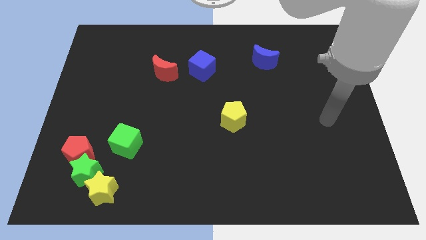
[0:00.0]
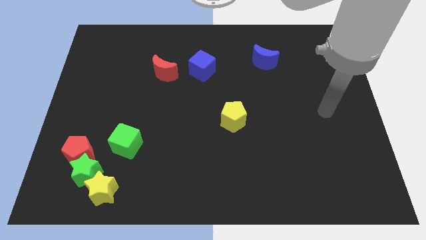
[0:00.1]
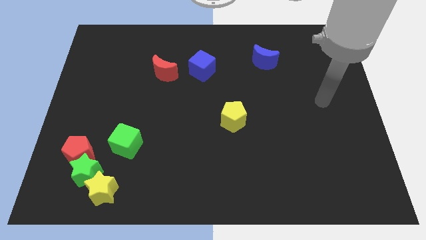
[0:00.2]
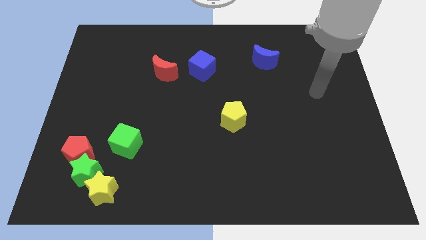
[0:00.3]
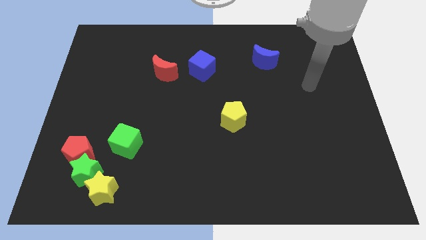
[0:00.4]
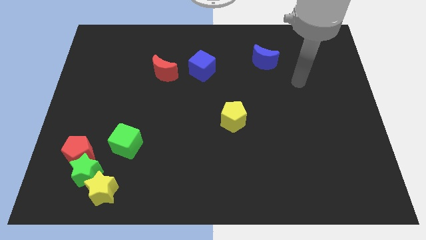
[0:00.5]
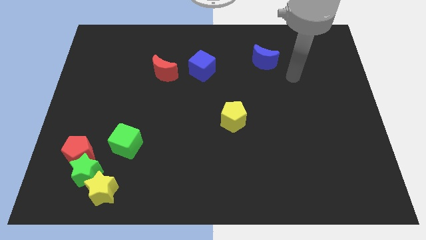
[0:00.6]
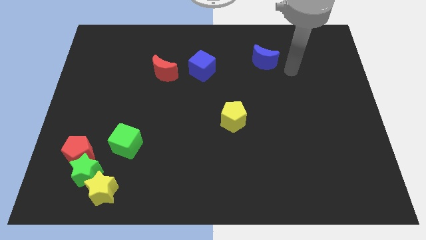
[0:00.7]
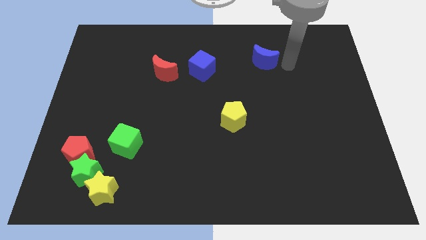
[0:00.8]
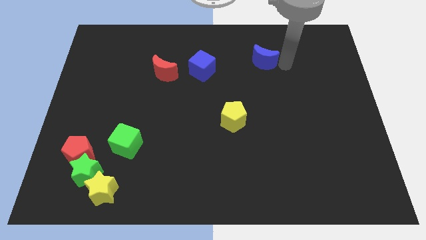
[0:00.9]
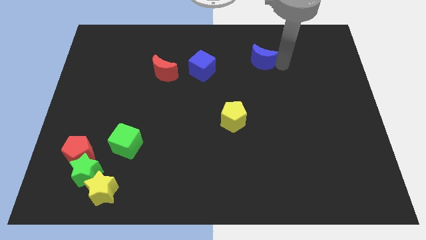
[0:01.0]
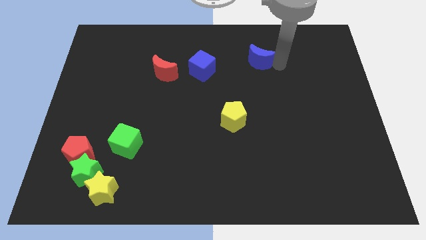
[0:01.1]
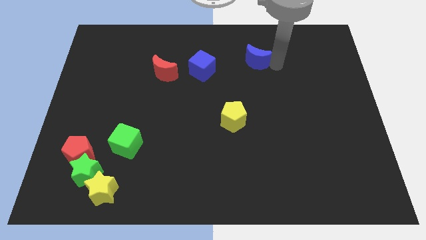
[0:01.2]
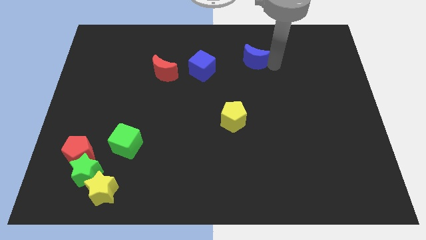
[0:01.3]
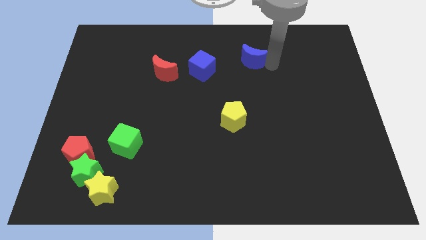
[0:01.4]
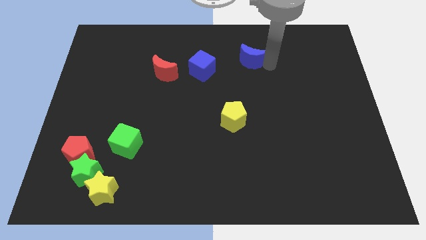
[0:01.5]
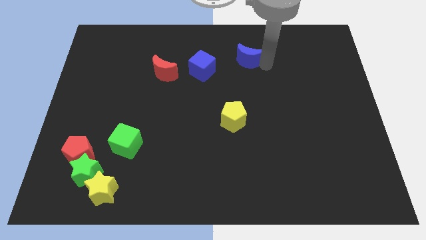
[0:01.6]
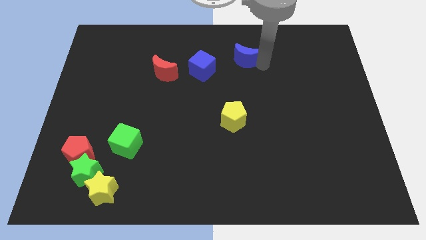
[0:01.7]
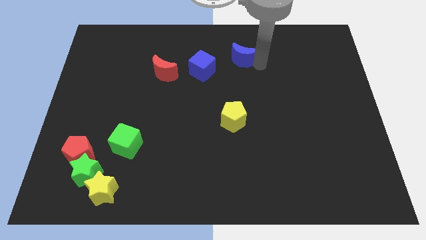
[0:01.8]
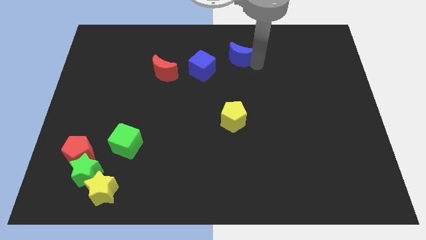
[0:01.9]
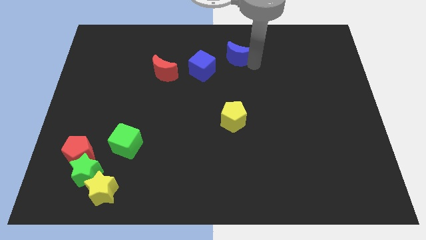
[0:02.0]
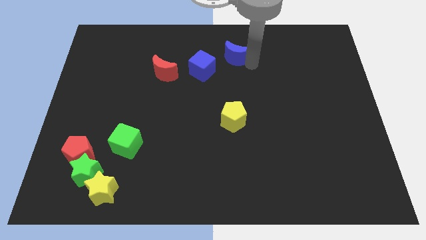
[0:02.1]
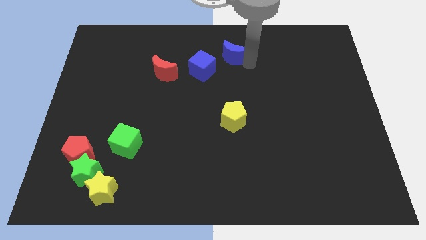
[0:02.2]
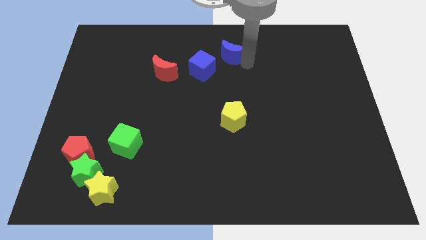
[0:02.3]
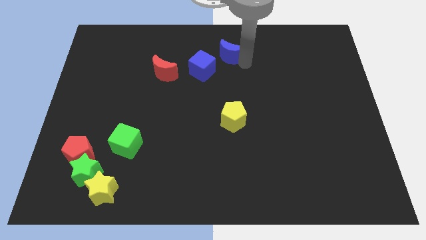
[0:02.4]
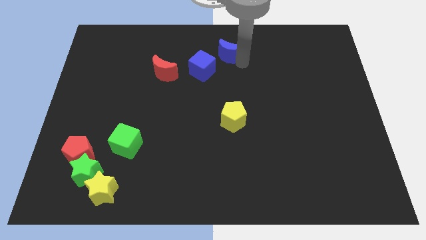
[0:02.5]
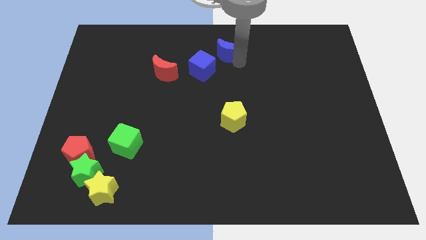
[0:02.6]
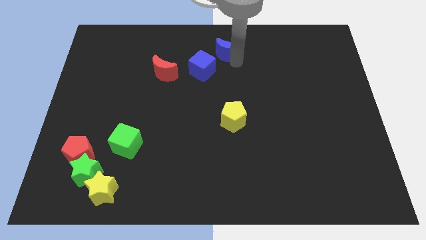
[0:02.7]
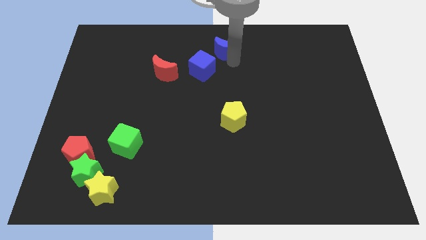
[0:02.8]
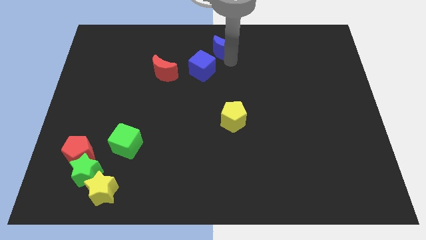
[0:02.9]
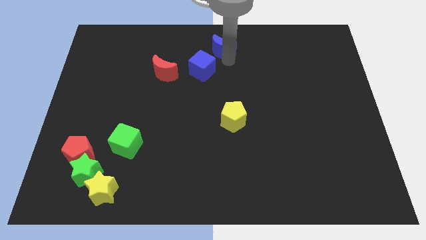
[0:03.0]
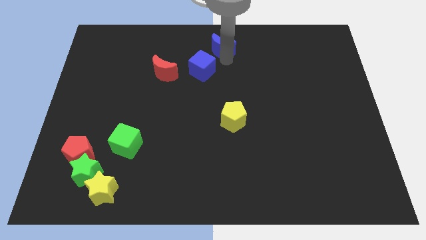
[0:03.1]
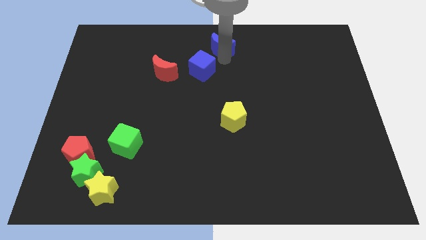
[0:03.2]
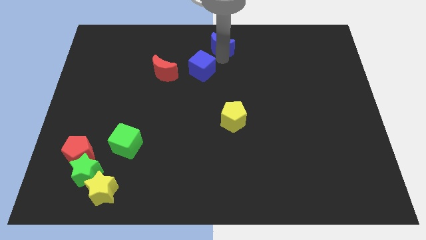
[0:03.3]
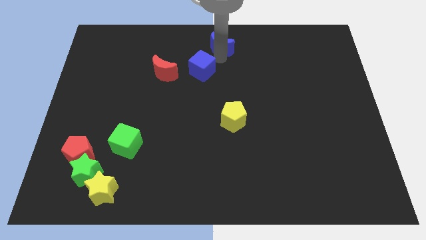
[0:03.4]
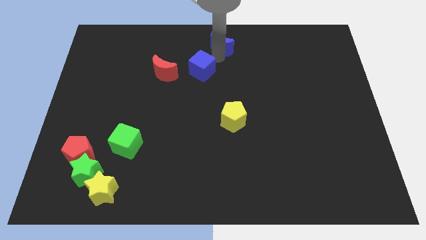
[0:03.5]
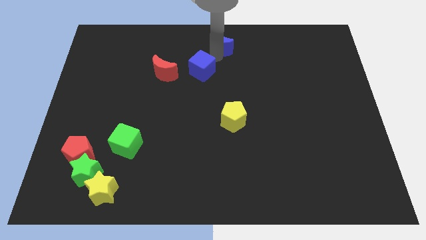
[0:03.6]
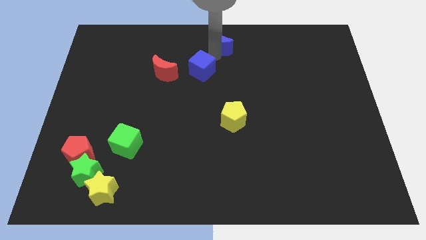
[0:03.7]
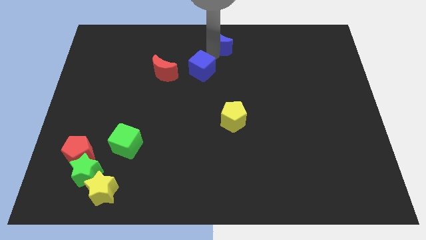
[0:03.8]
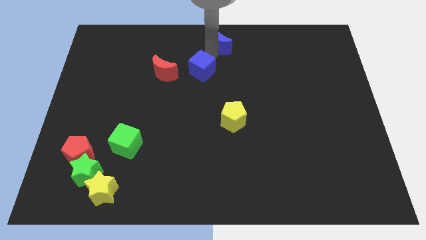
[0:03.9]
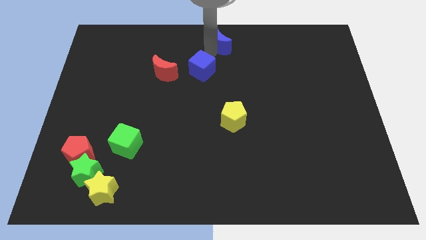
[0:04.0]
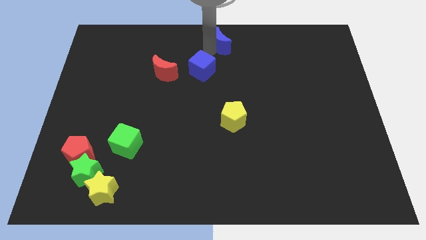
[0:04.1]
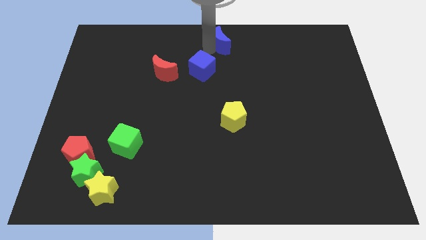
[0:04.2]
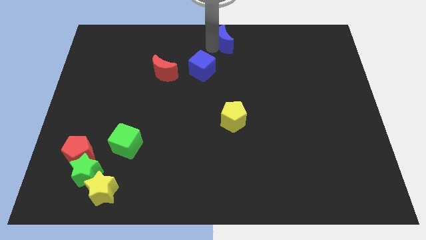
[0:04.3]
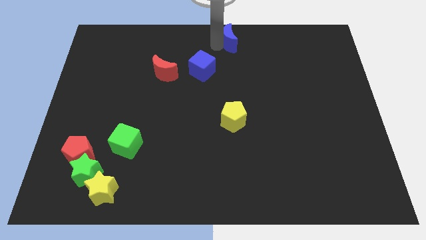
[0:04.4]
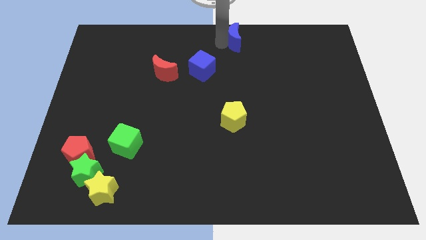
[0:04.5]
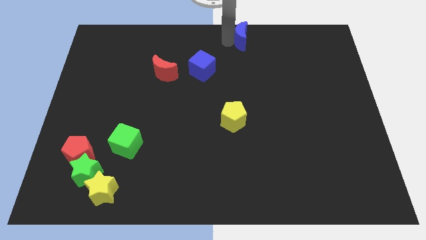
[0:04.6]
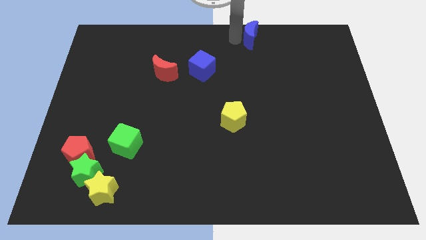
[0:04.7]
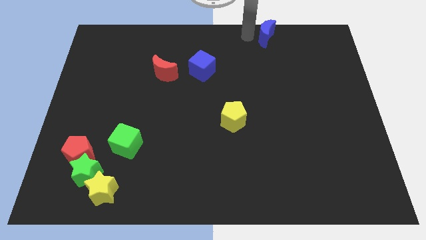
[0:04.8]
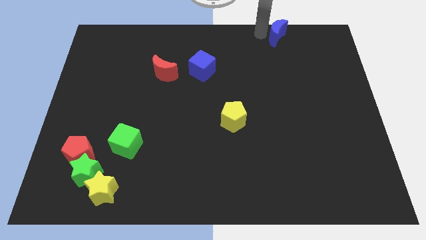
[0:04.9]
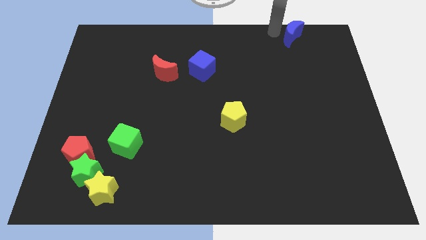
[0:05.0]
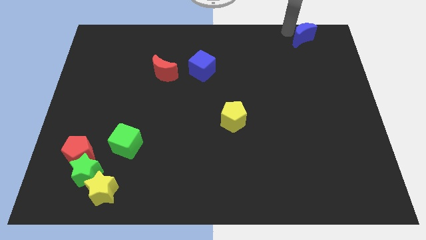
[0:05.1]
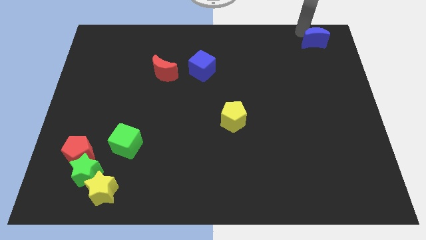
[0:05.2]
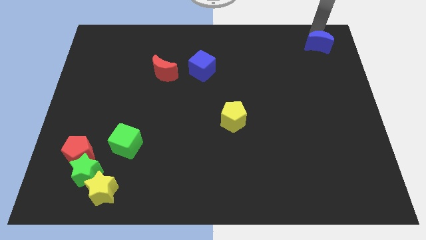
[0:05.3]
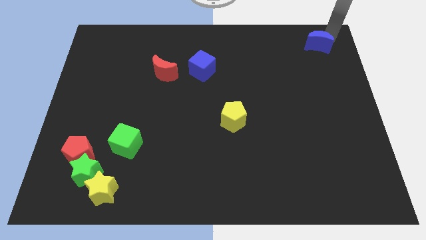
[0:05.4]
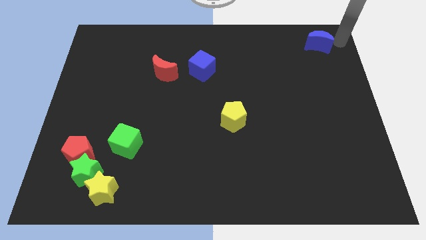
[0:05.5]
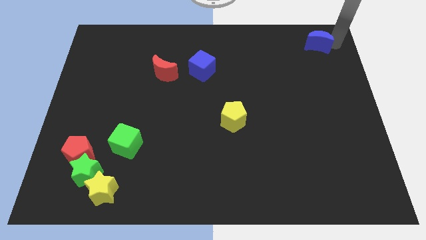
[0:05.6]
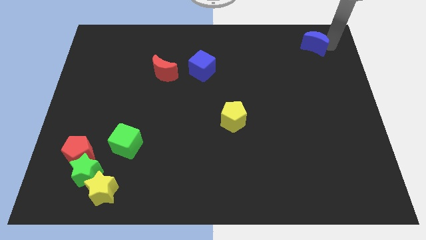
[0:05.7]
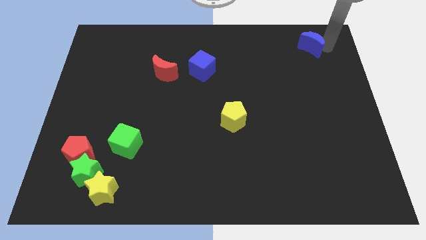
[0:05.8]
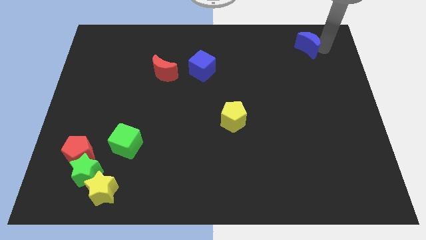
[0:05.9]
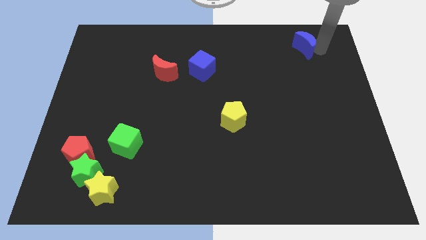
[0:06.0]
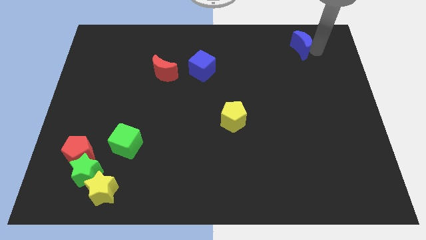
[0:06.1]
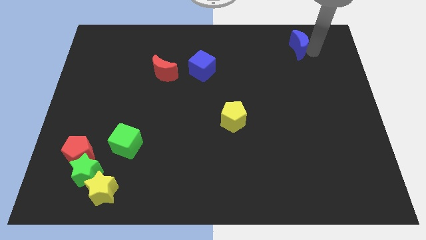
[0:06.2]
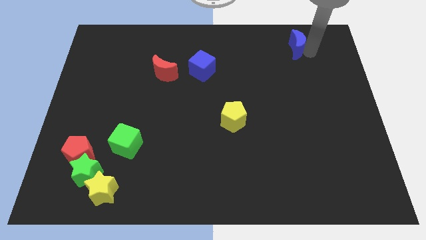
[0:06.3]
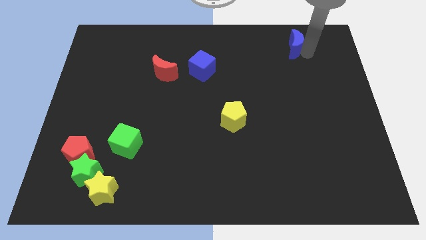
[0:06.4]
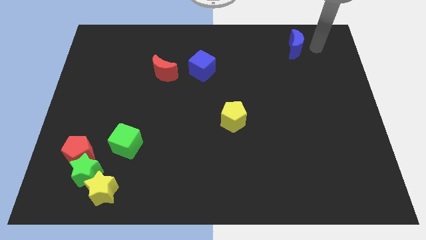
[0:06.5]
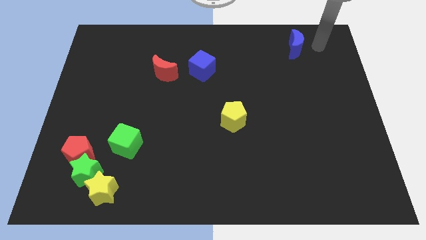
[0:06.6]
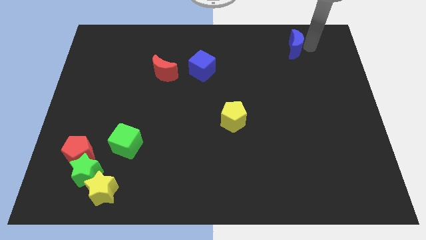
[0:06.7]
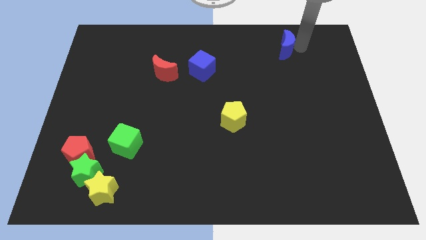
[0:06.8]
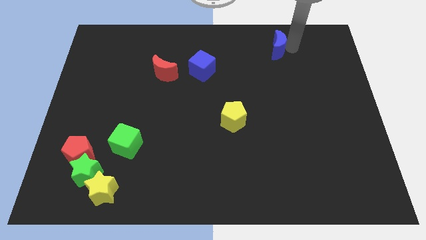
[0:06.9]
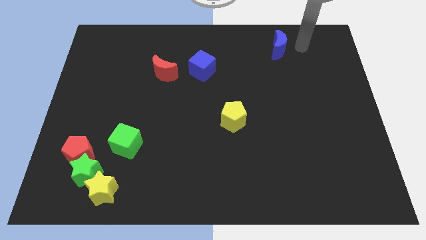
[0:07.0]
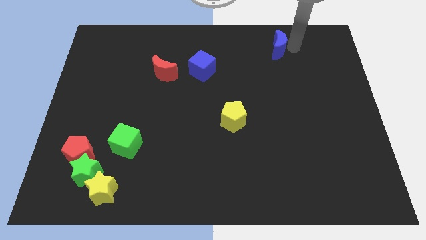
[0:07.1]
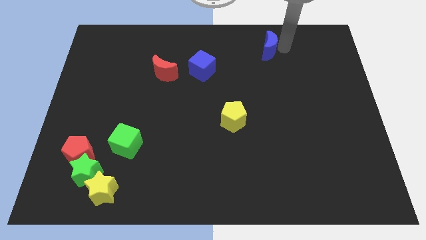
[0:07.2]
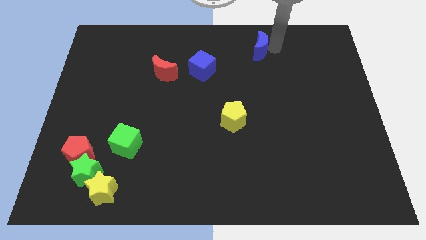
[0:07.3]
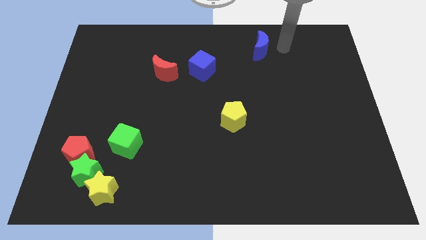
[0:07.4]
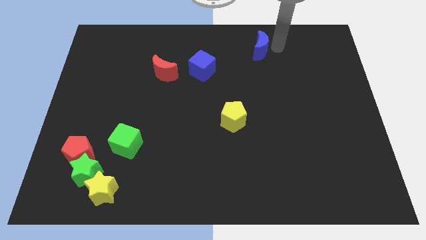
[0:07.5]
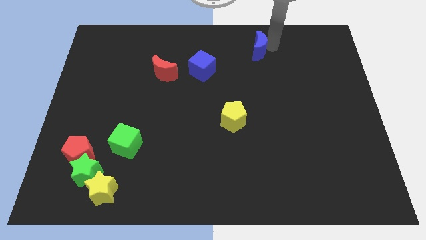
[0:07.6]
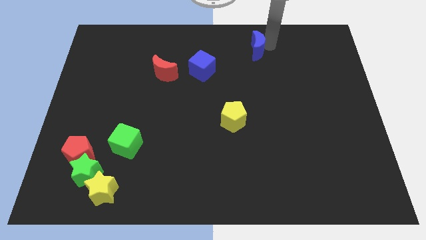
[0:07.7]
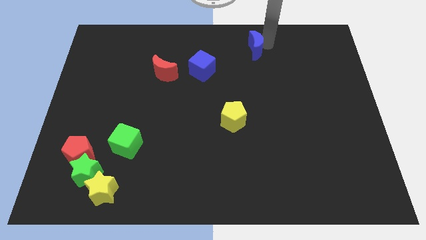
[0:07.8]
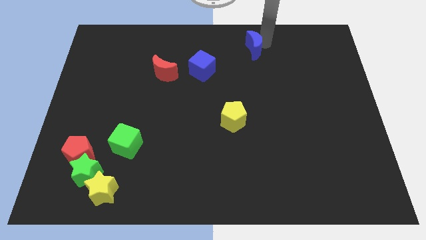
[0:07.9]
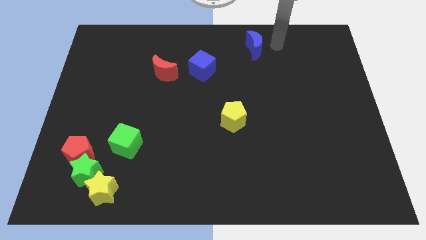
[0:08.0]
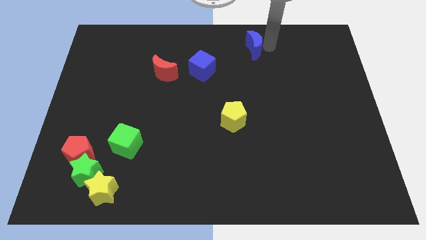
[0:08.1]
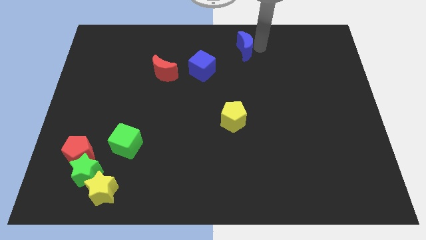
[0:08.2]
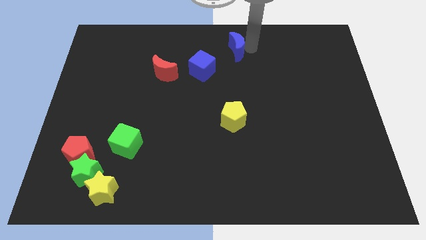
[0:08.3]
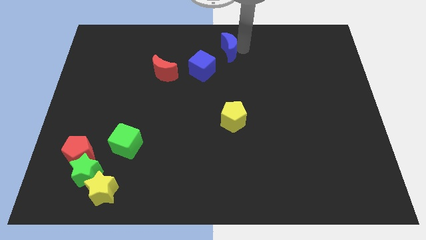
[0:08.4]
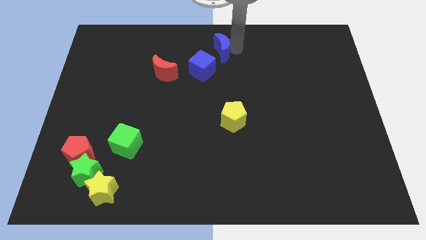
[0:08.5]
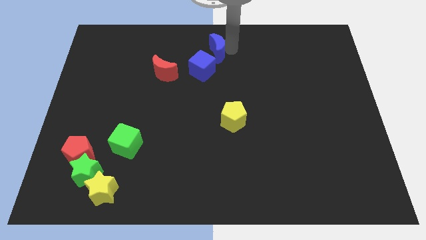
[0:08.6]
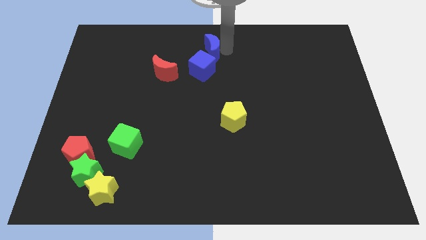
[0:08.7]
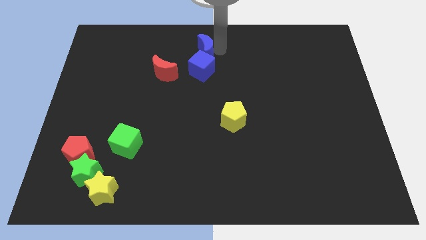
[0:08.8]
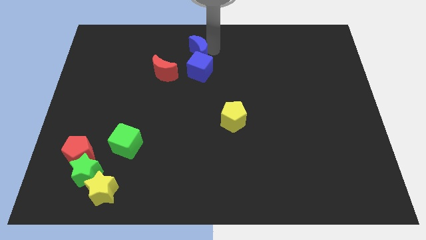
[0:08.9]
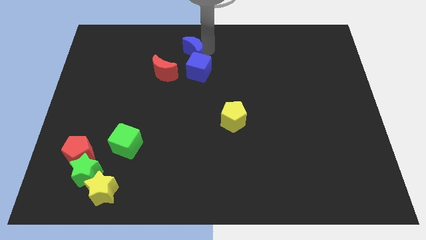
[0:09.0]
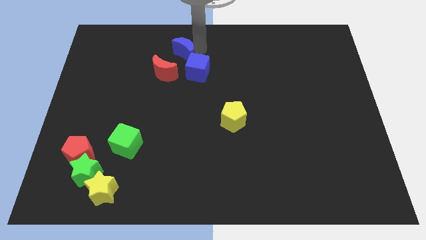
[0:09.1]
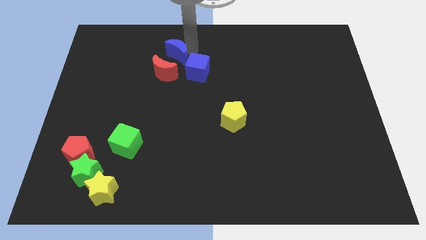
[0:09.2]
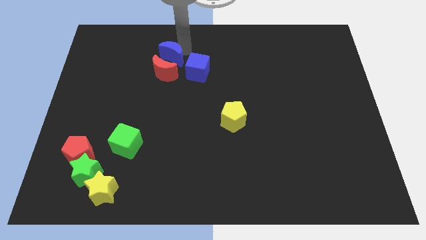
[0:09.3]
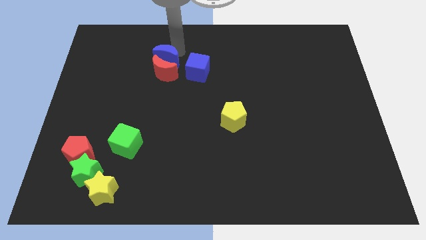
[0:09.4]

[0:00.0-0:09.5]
move the blue moon close to the red moon
